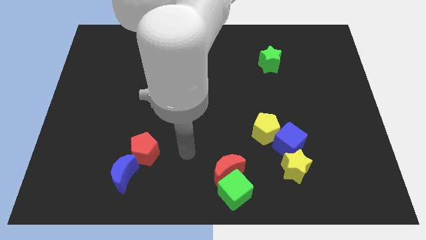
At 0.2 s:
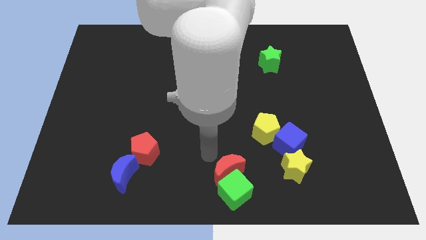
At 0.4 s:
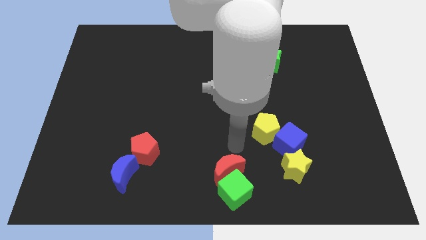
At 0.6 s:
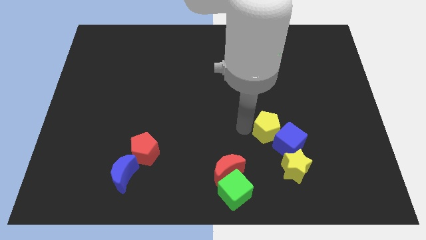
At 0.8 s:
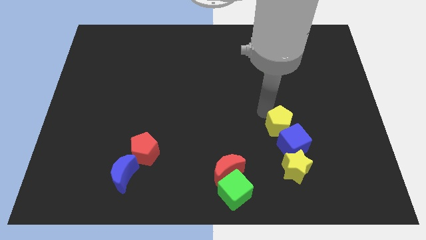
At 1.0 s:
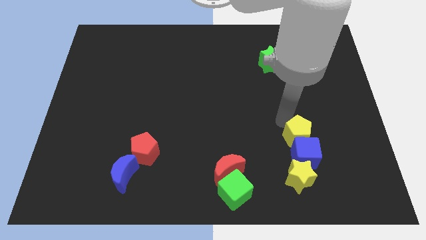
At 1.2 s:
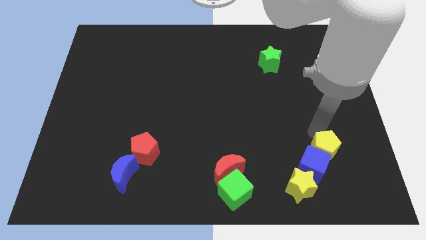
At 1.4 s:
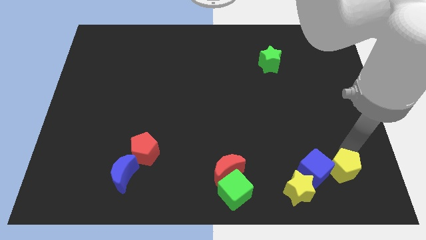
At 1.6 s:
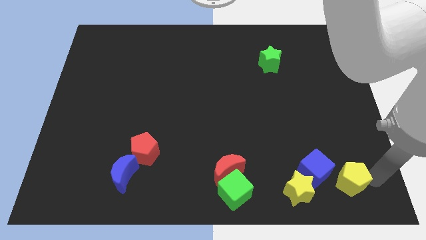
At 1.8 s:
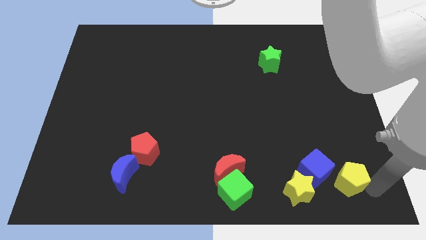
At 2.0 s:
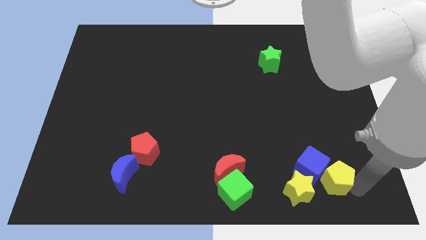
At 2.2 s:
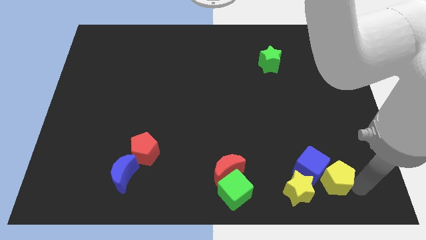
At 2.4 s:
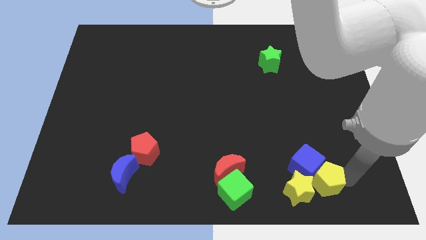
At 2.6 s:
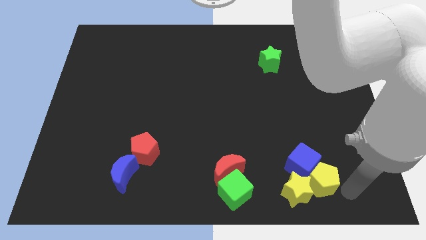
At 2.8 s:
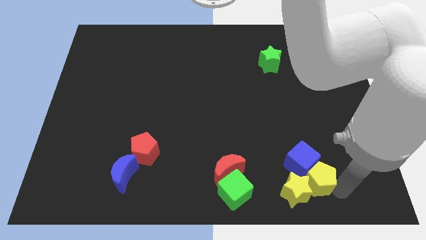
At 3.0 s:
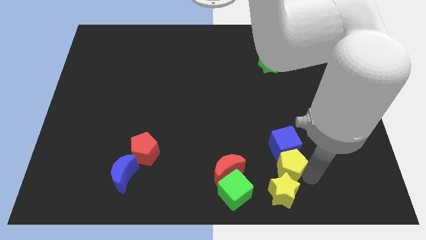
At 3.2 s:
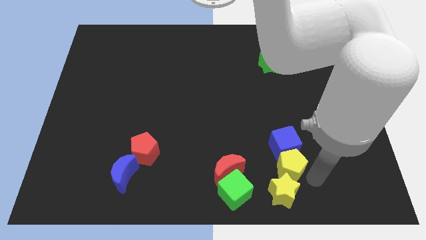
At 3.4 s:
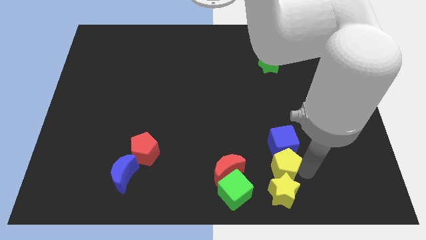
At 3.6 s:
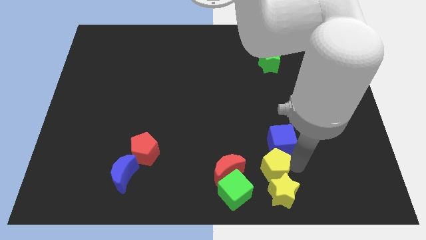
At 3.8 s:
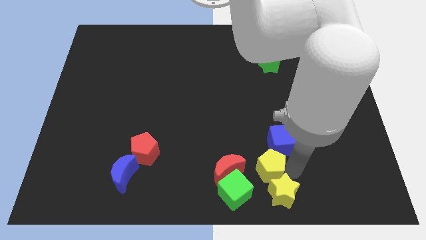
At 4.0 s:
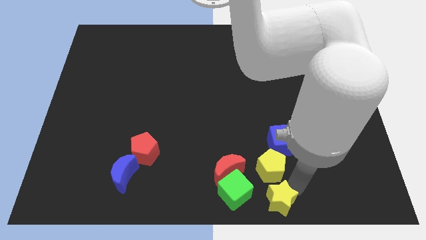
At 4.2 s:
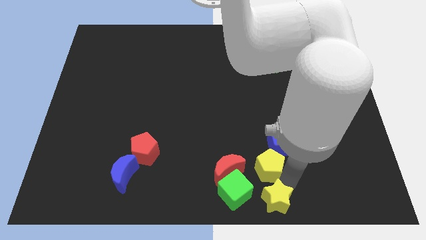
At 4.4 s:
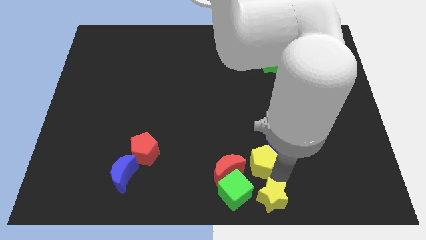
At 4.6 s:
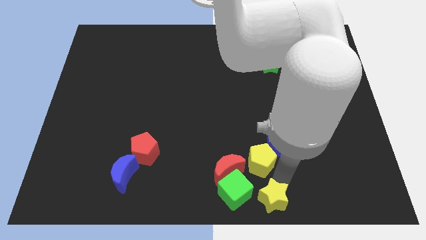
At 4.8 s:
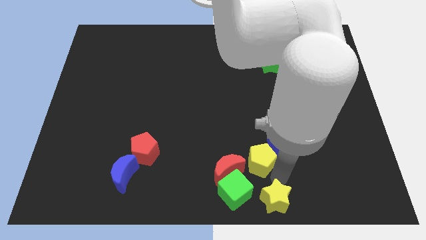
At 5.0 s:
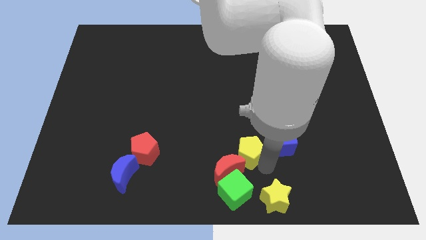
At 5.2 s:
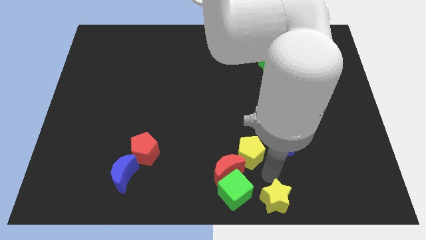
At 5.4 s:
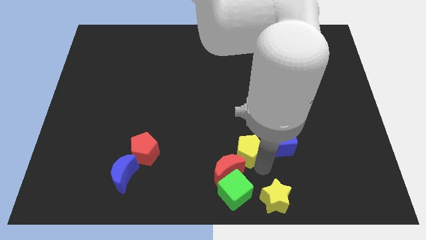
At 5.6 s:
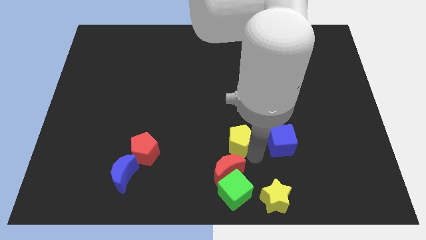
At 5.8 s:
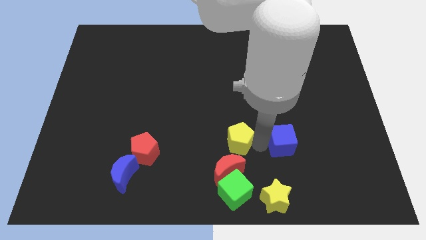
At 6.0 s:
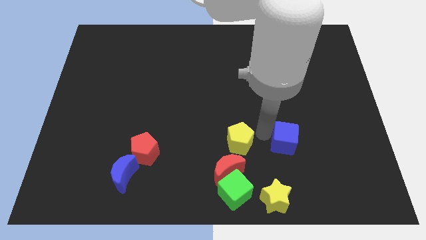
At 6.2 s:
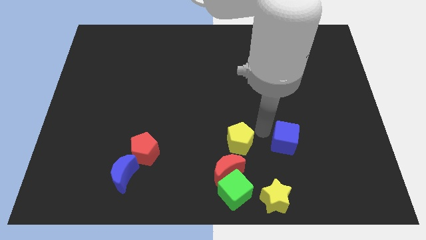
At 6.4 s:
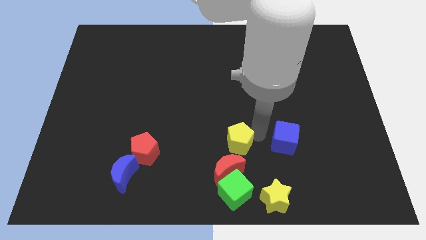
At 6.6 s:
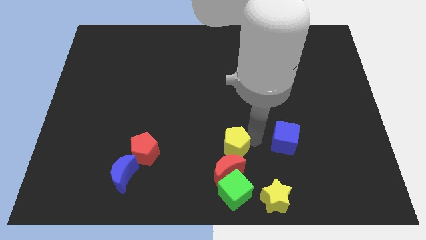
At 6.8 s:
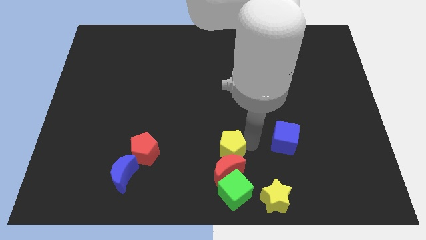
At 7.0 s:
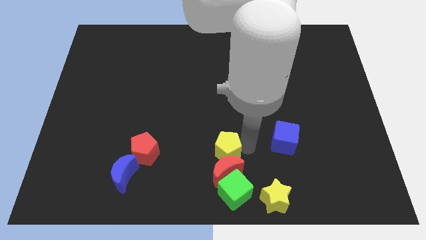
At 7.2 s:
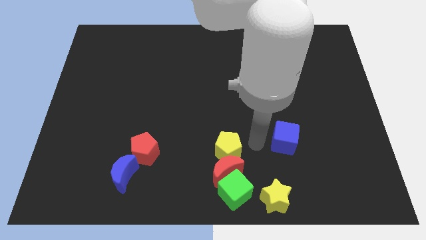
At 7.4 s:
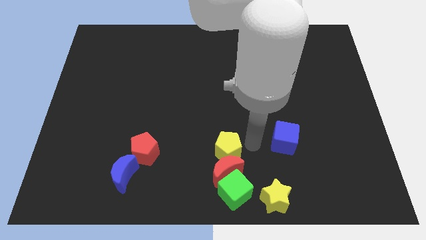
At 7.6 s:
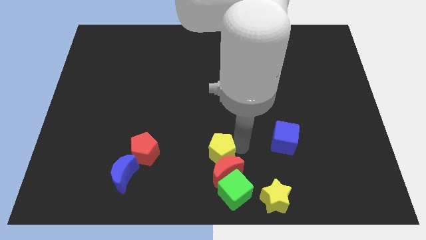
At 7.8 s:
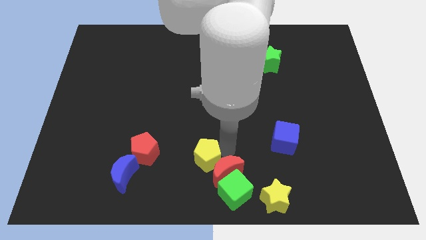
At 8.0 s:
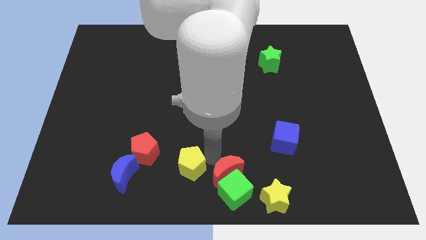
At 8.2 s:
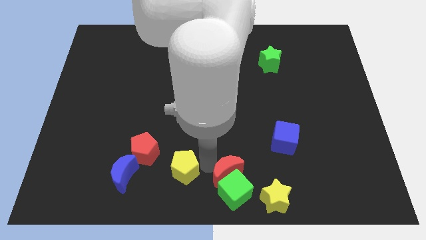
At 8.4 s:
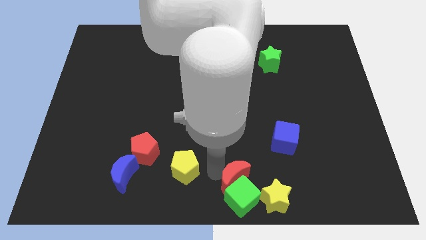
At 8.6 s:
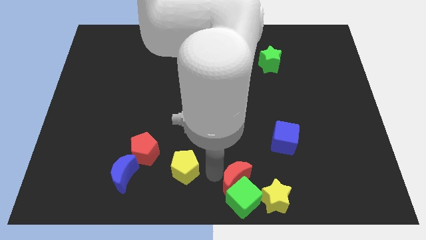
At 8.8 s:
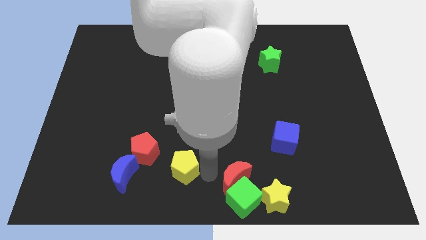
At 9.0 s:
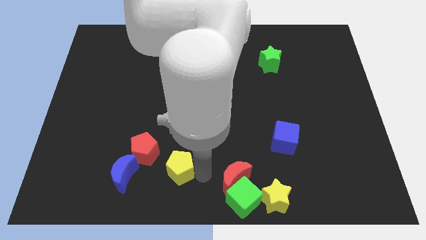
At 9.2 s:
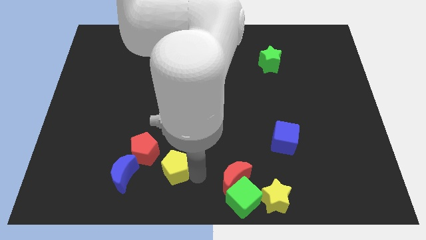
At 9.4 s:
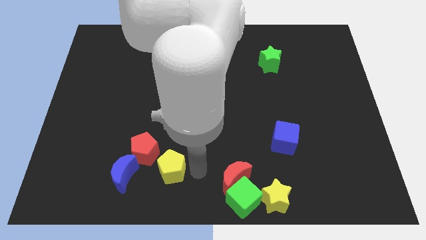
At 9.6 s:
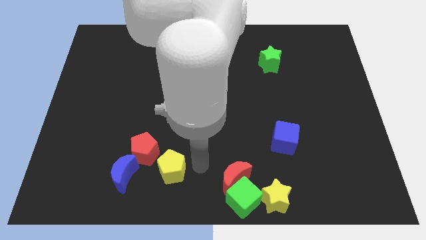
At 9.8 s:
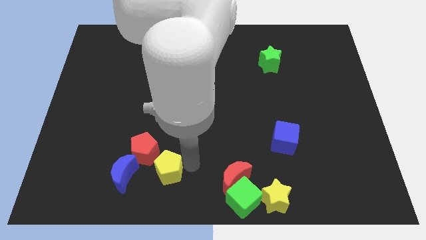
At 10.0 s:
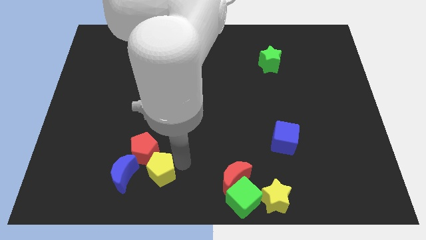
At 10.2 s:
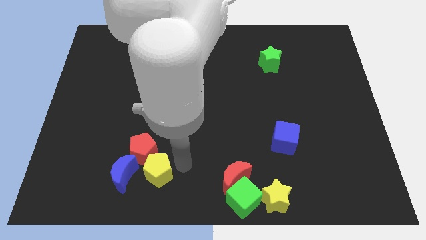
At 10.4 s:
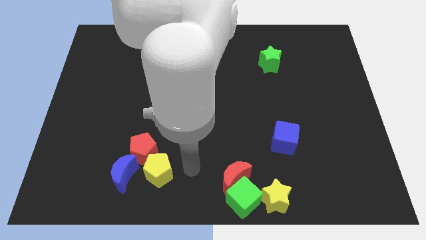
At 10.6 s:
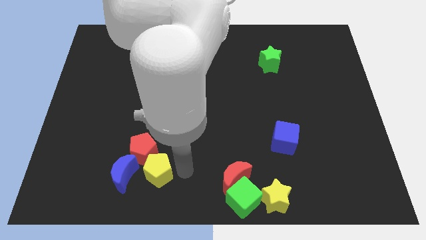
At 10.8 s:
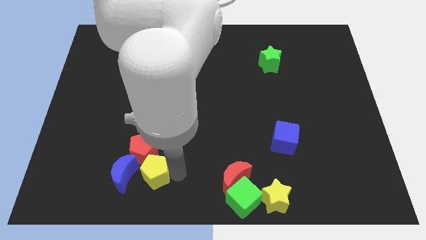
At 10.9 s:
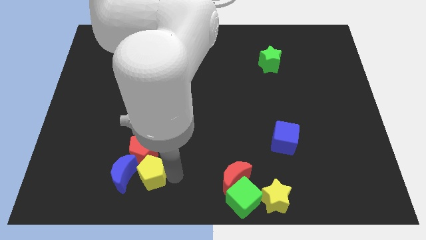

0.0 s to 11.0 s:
put the yellow pentagon close to the blue moon

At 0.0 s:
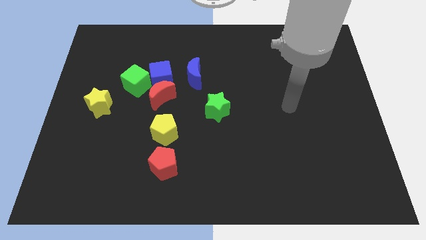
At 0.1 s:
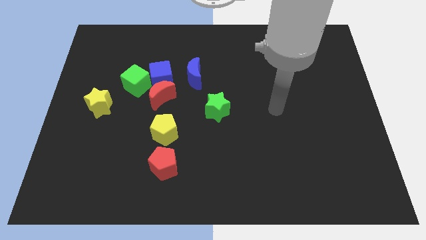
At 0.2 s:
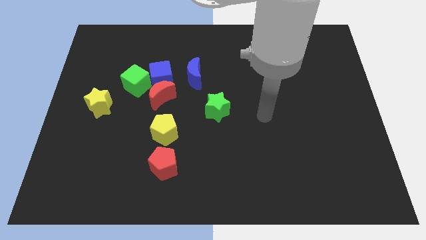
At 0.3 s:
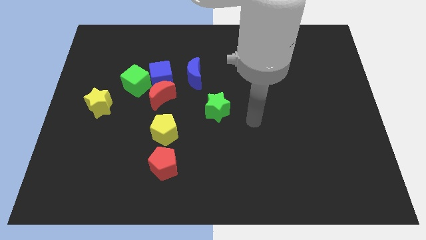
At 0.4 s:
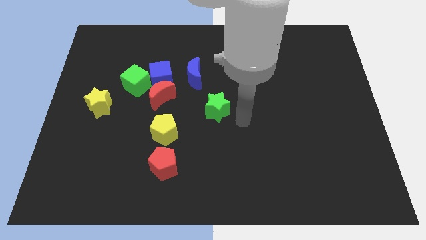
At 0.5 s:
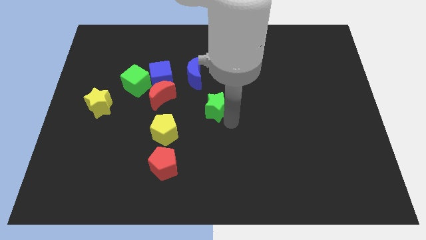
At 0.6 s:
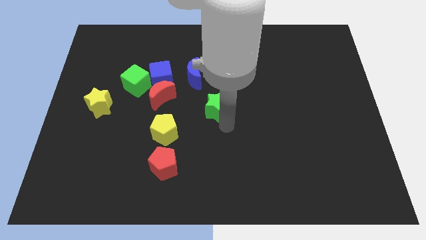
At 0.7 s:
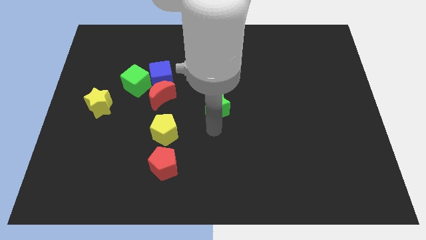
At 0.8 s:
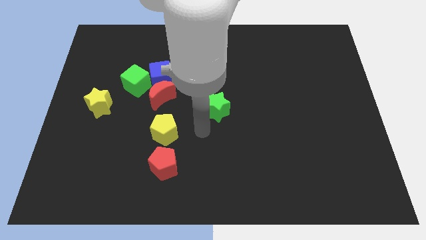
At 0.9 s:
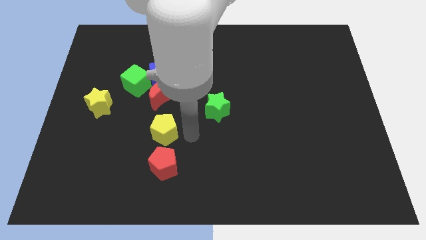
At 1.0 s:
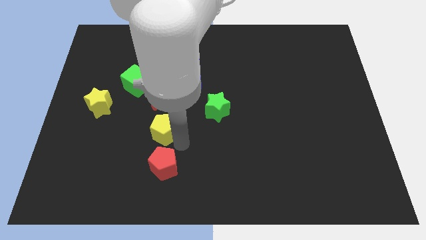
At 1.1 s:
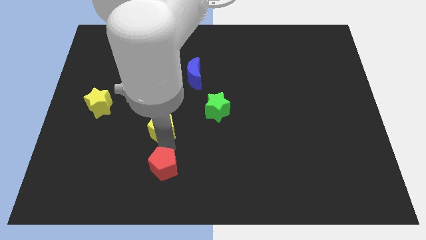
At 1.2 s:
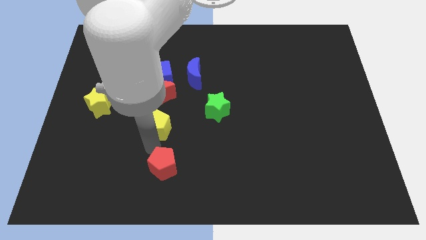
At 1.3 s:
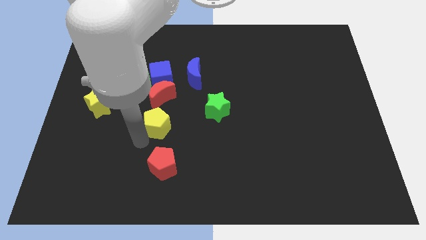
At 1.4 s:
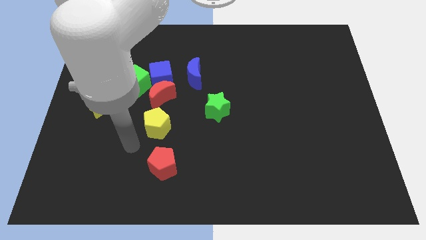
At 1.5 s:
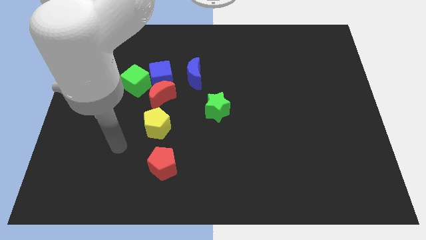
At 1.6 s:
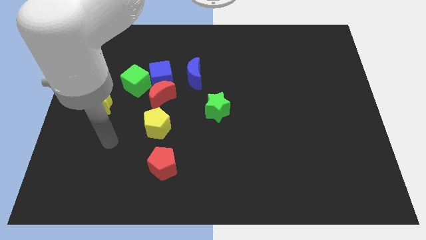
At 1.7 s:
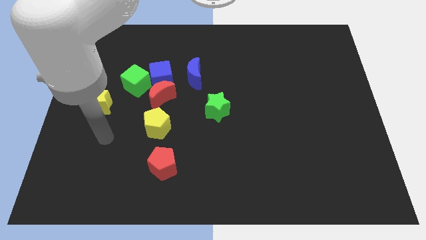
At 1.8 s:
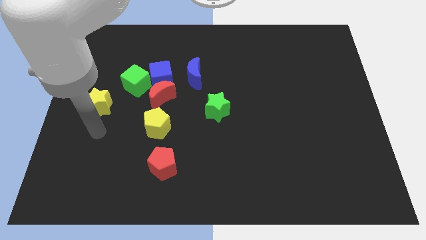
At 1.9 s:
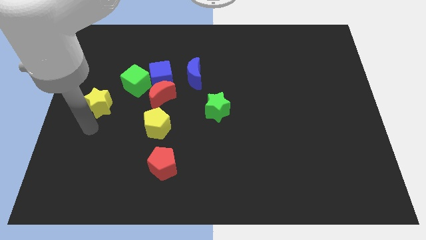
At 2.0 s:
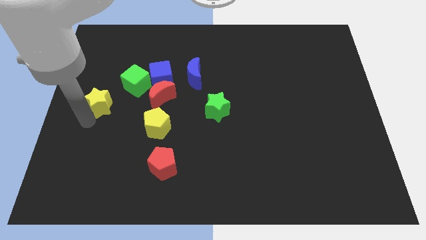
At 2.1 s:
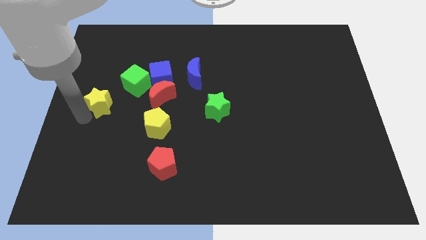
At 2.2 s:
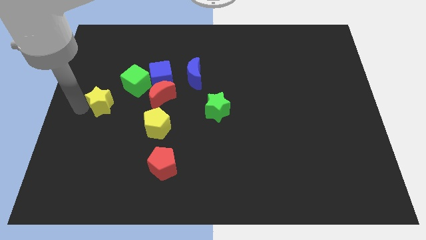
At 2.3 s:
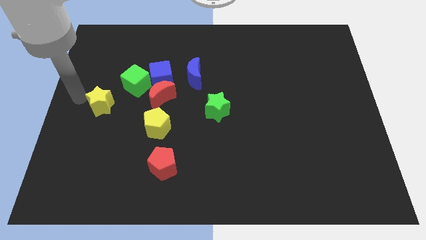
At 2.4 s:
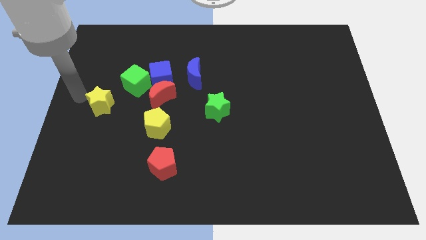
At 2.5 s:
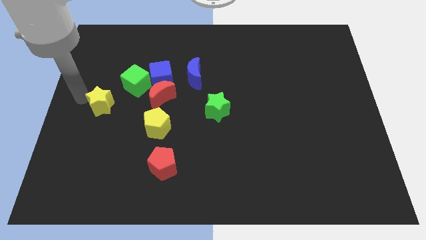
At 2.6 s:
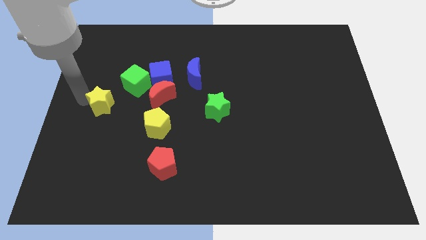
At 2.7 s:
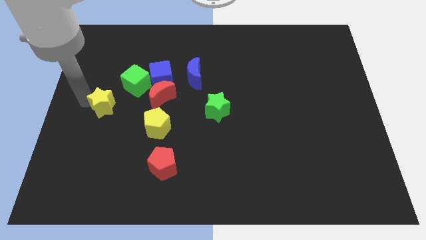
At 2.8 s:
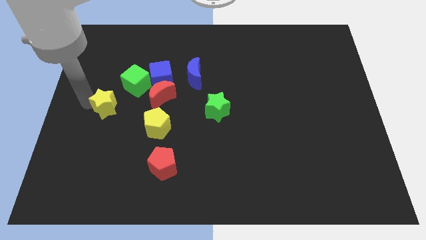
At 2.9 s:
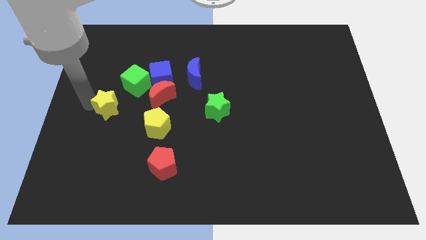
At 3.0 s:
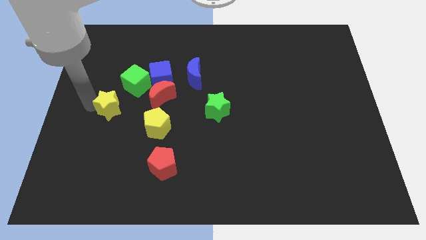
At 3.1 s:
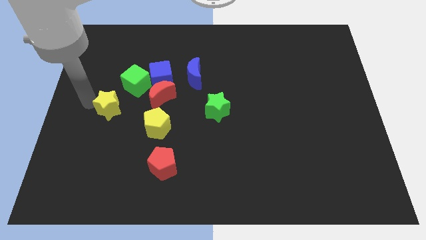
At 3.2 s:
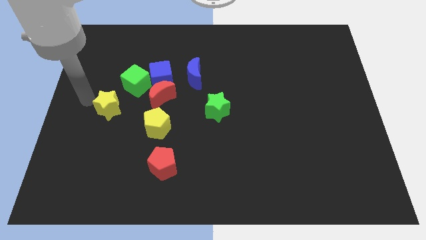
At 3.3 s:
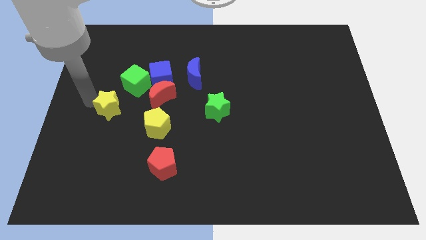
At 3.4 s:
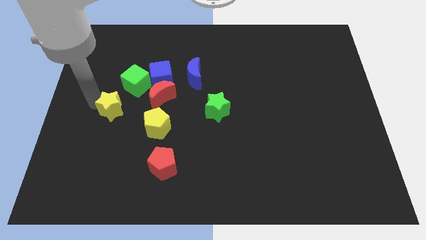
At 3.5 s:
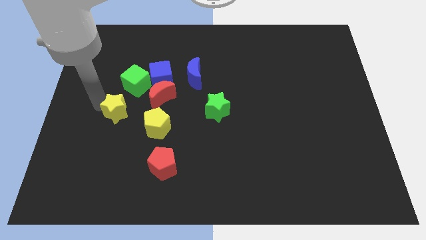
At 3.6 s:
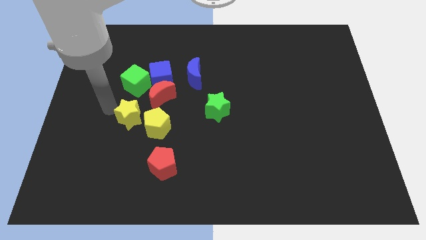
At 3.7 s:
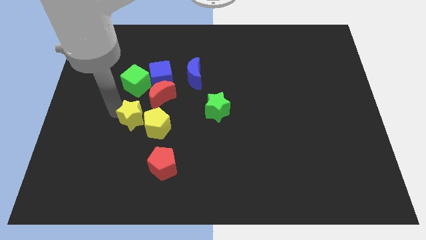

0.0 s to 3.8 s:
slide the yellow star close to the yellow pentagon
